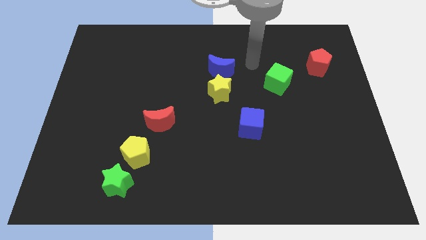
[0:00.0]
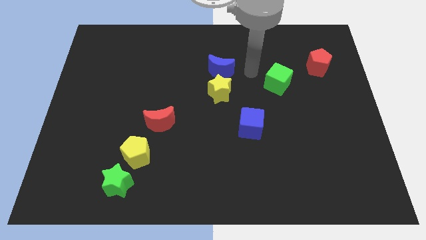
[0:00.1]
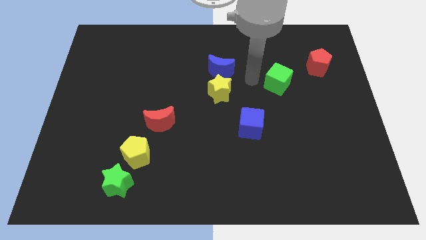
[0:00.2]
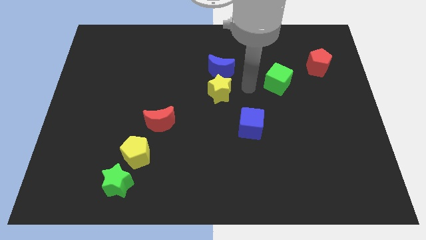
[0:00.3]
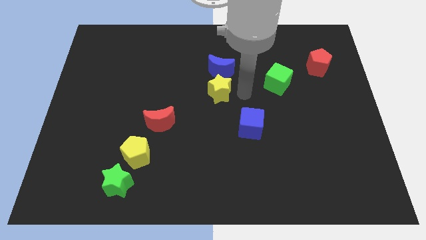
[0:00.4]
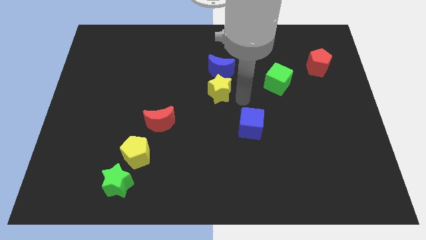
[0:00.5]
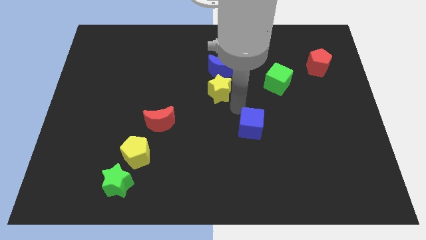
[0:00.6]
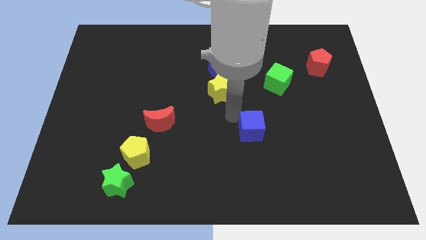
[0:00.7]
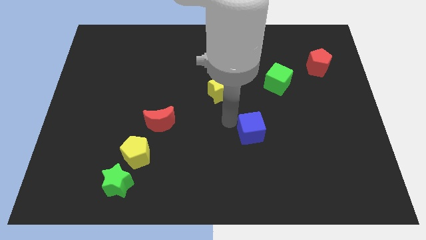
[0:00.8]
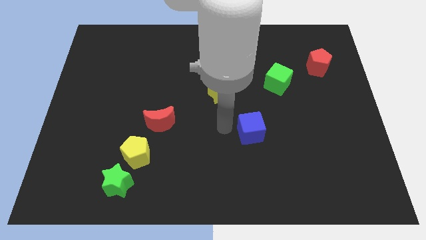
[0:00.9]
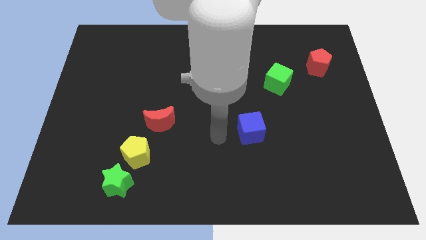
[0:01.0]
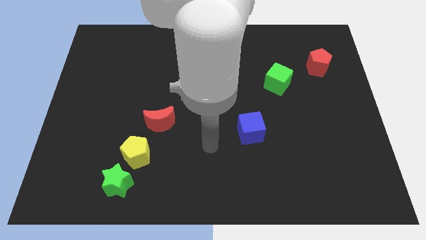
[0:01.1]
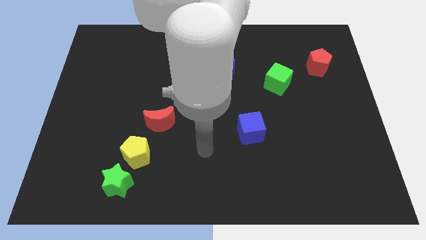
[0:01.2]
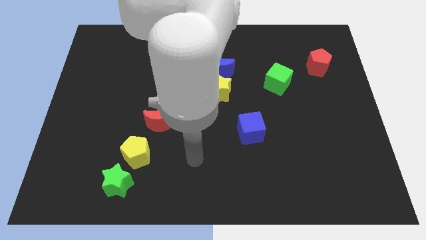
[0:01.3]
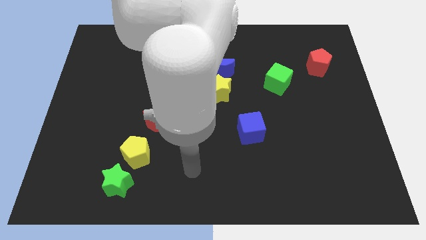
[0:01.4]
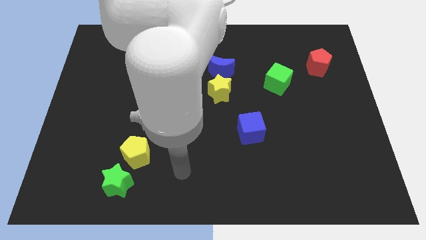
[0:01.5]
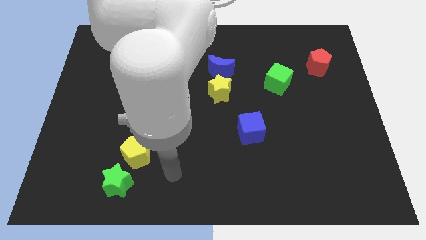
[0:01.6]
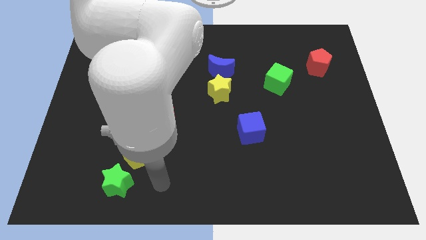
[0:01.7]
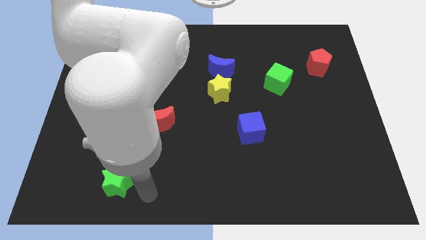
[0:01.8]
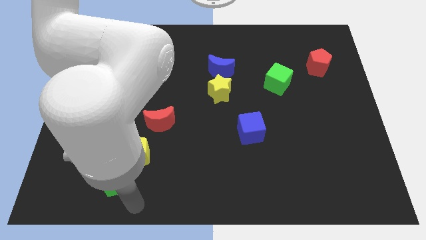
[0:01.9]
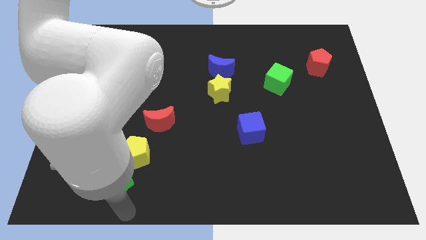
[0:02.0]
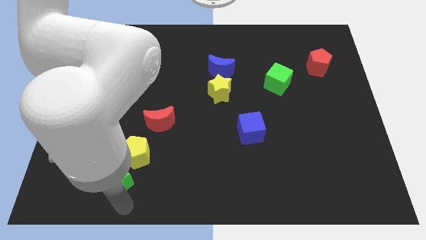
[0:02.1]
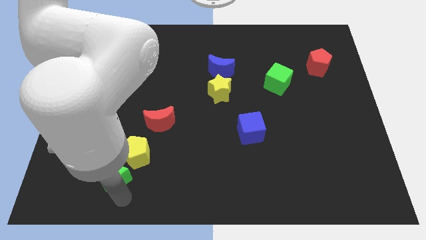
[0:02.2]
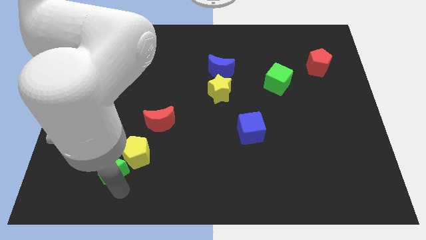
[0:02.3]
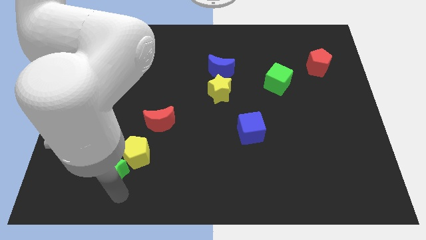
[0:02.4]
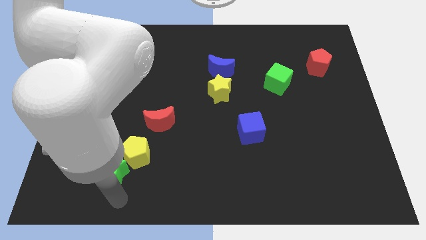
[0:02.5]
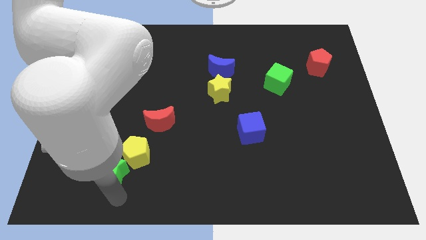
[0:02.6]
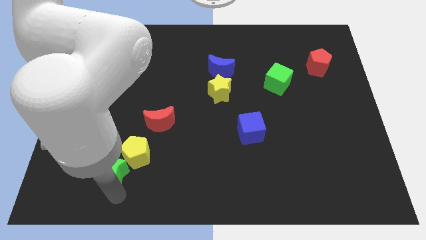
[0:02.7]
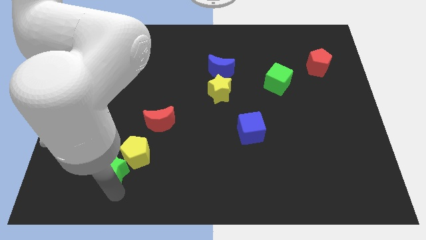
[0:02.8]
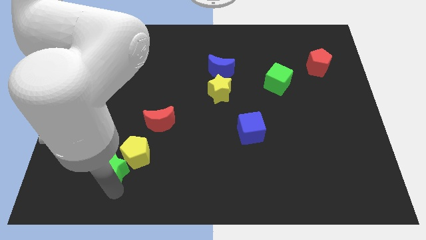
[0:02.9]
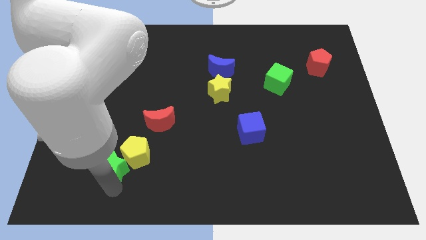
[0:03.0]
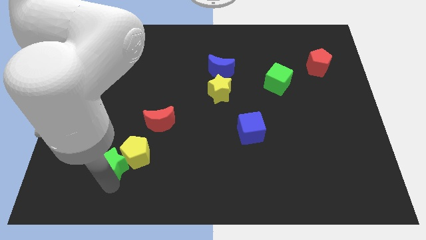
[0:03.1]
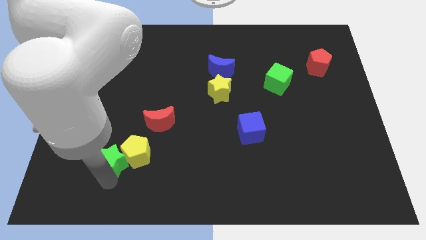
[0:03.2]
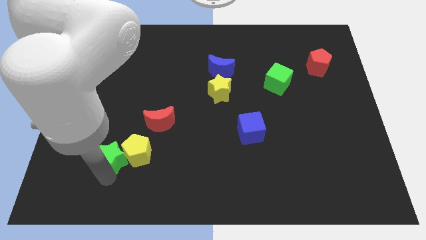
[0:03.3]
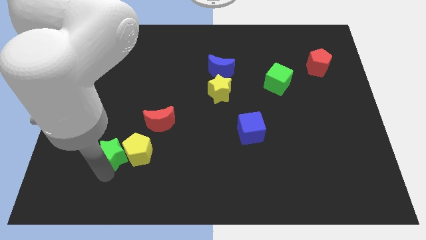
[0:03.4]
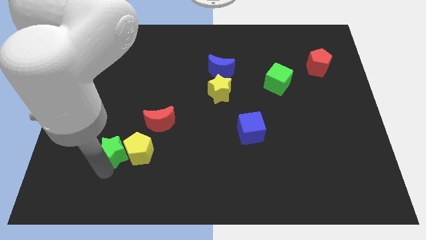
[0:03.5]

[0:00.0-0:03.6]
slightly move the green star upwards

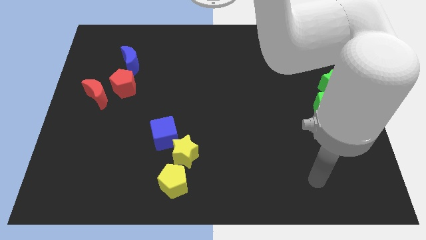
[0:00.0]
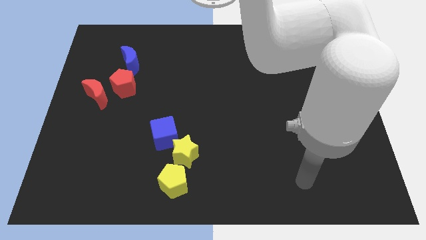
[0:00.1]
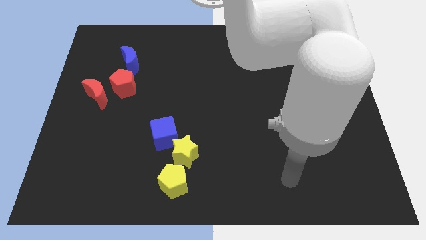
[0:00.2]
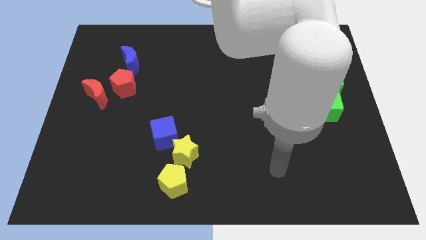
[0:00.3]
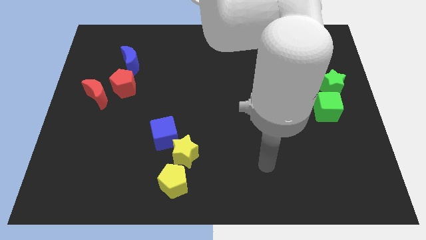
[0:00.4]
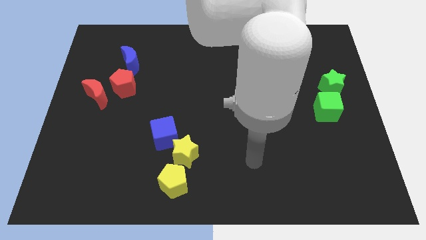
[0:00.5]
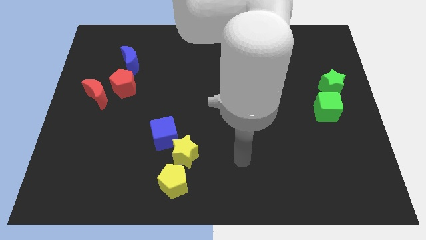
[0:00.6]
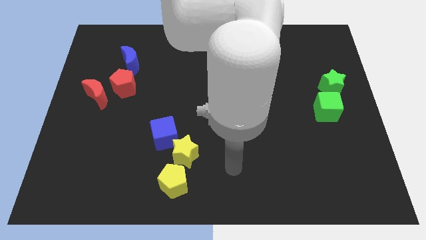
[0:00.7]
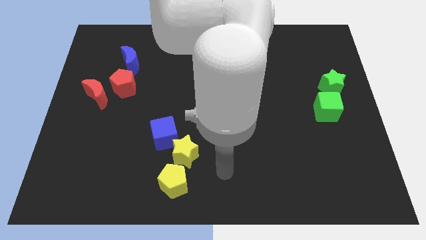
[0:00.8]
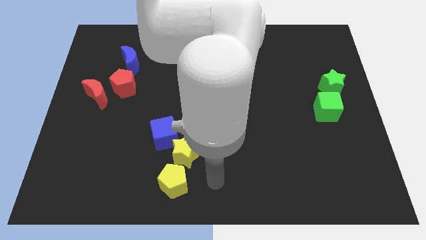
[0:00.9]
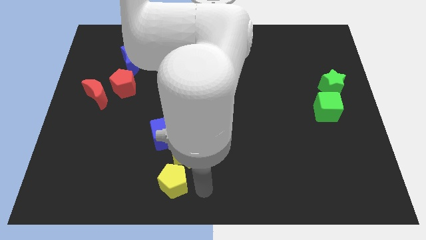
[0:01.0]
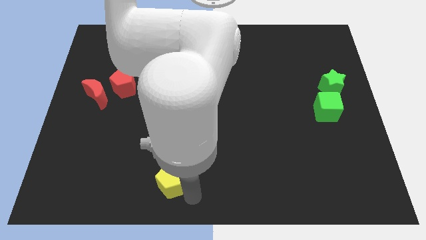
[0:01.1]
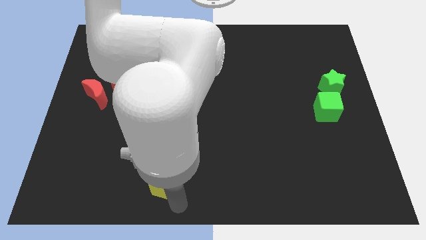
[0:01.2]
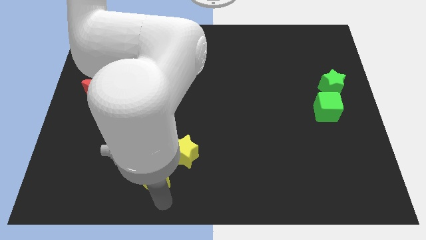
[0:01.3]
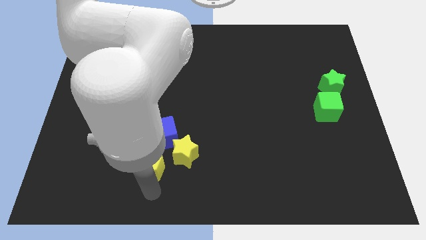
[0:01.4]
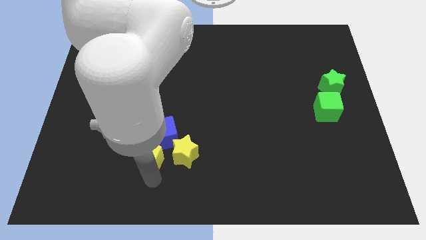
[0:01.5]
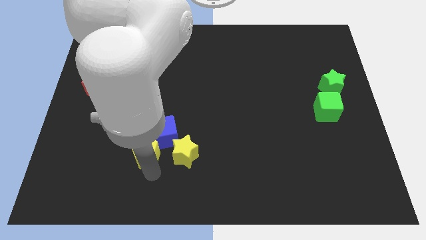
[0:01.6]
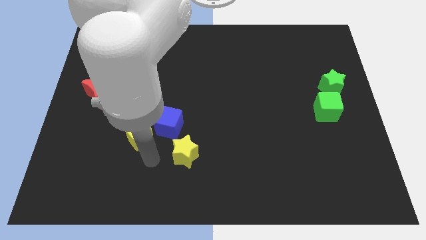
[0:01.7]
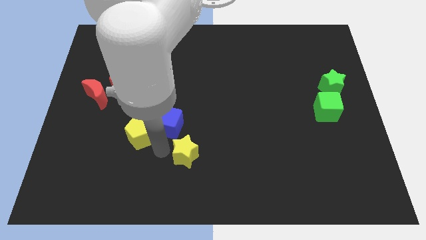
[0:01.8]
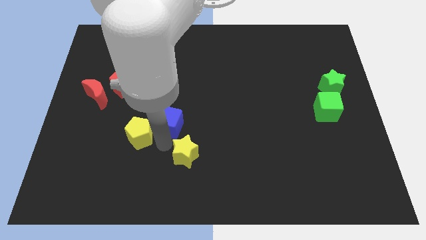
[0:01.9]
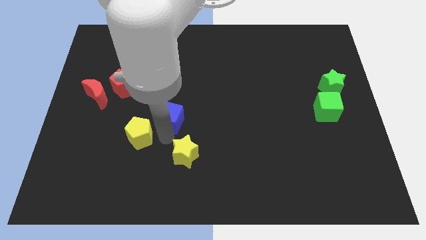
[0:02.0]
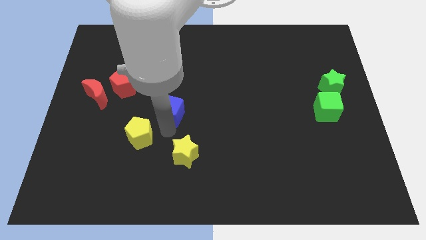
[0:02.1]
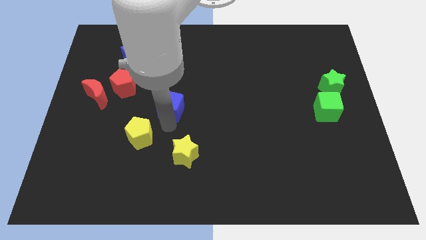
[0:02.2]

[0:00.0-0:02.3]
slightly slide the blue cube upwards

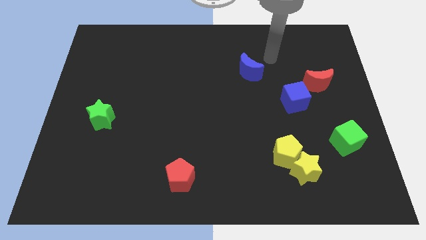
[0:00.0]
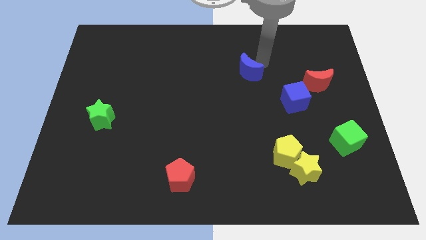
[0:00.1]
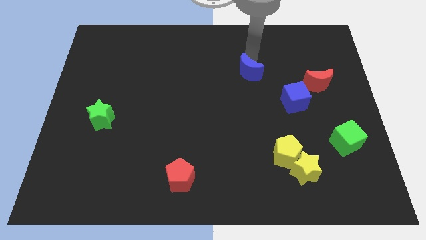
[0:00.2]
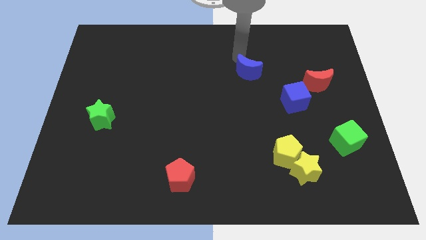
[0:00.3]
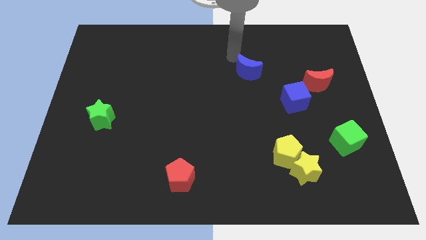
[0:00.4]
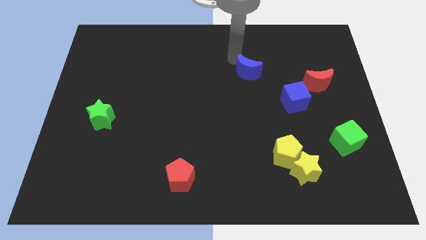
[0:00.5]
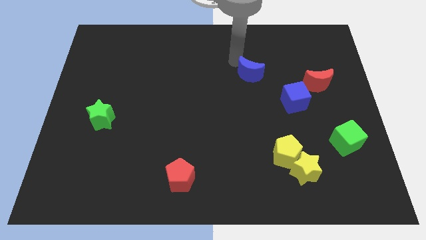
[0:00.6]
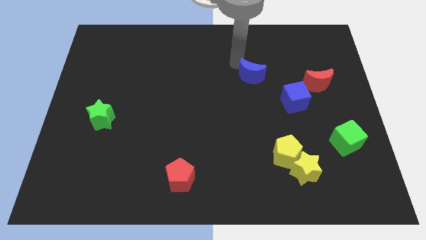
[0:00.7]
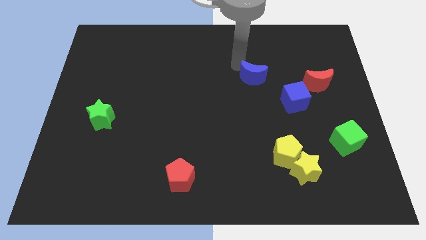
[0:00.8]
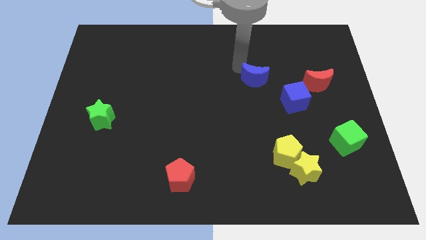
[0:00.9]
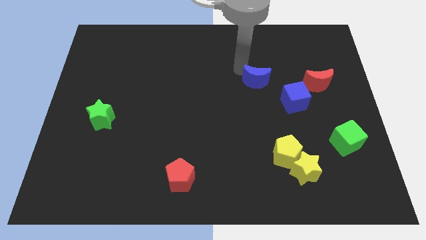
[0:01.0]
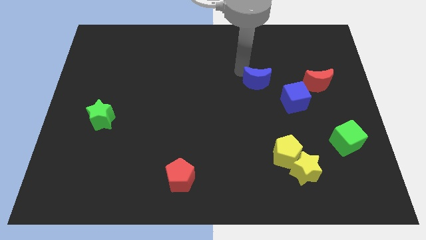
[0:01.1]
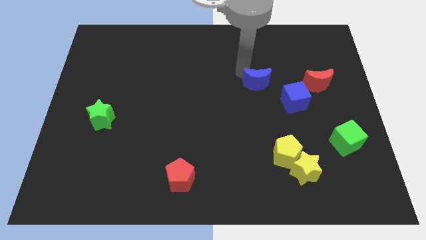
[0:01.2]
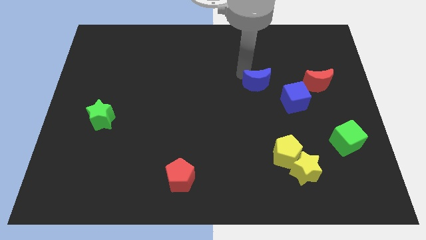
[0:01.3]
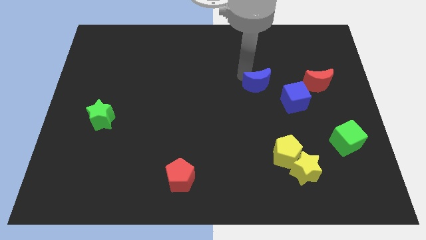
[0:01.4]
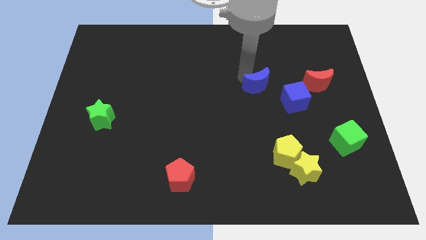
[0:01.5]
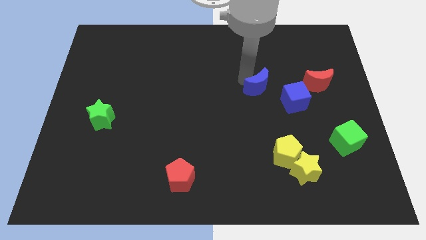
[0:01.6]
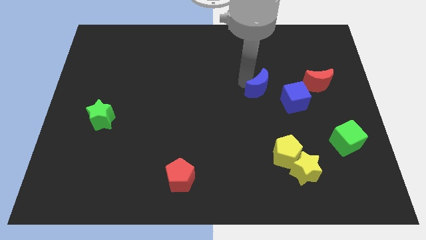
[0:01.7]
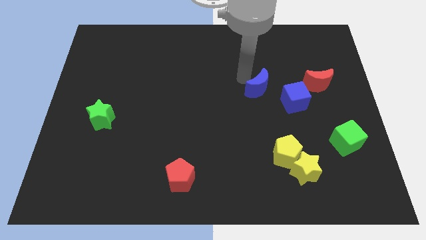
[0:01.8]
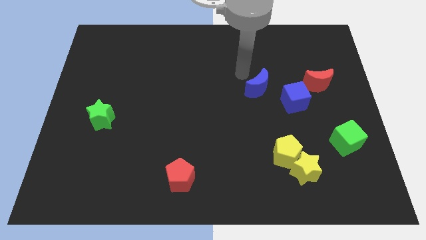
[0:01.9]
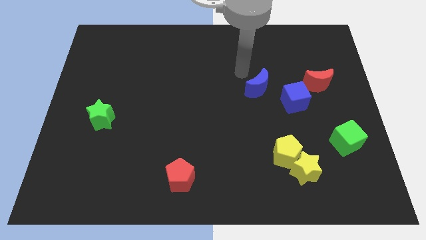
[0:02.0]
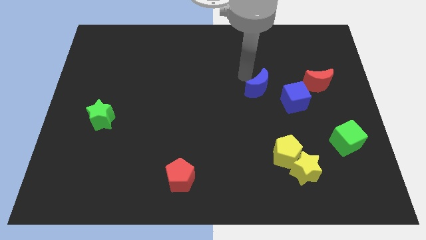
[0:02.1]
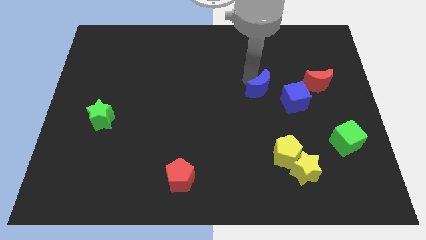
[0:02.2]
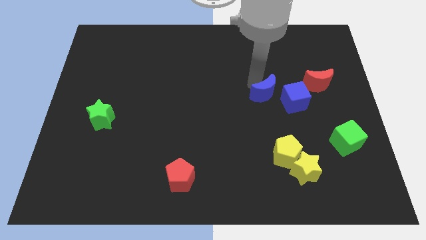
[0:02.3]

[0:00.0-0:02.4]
slightly move the blue moon down and then to the right
